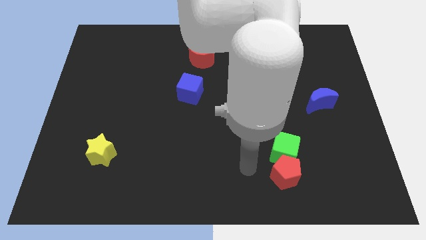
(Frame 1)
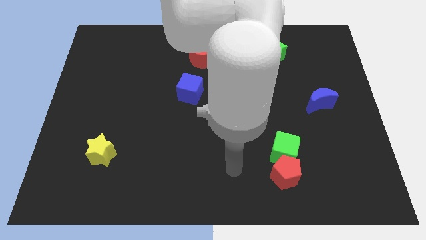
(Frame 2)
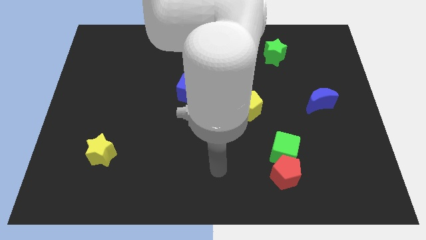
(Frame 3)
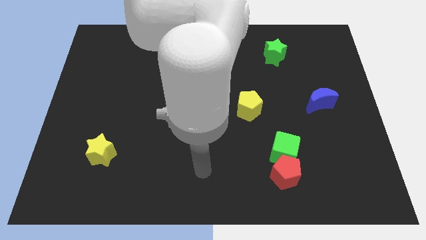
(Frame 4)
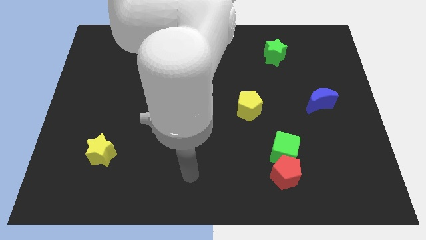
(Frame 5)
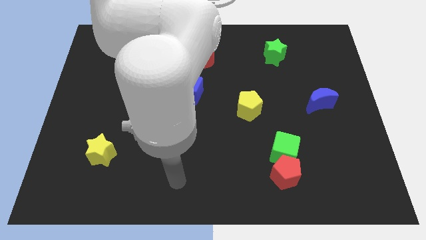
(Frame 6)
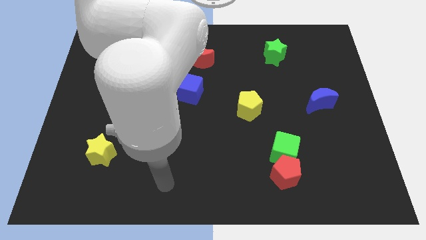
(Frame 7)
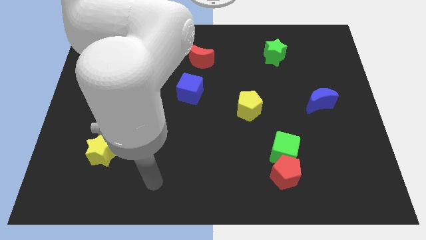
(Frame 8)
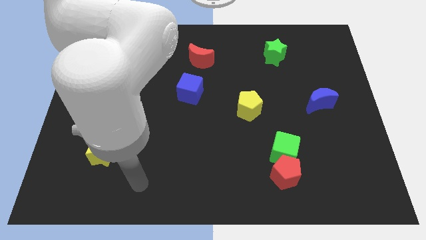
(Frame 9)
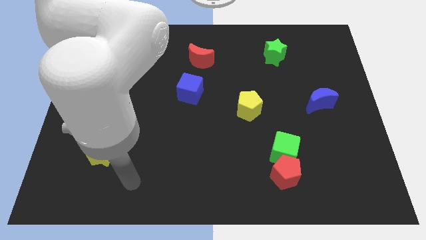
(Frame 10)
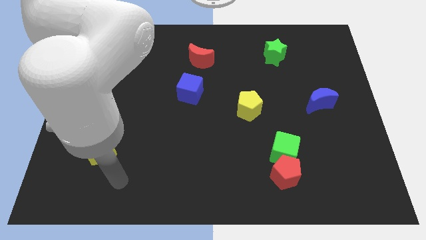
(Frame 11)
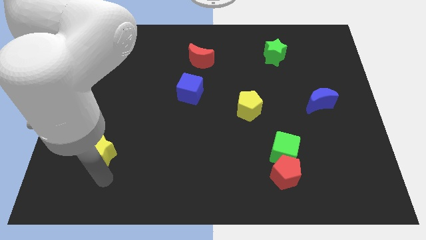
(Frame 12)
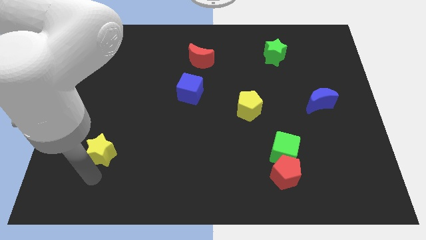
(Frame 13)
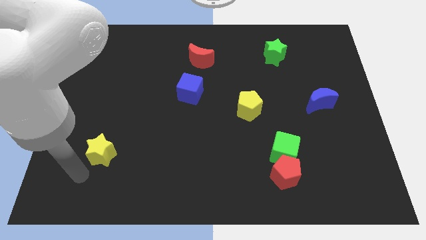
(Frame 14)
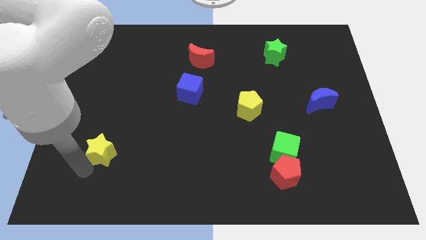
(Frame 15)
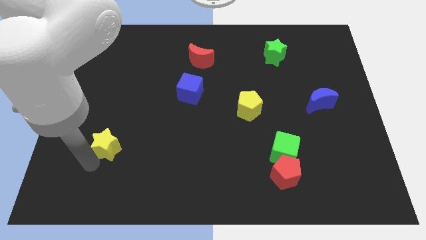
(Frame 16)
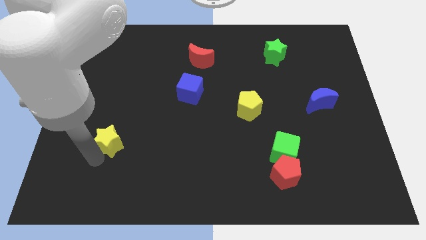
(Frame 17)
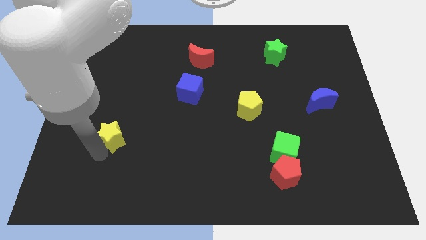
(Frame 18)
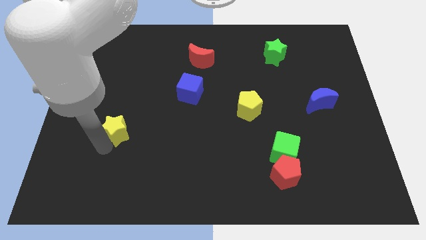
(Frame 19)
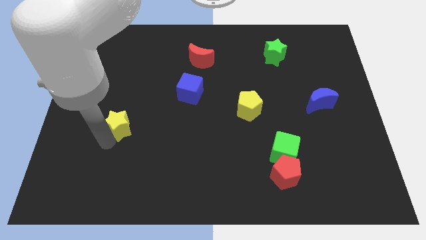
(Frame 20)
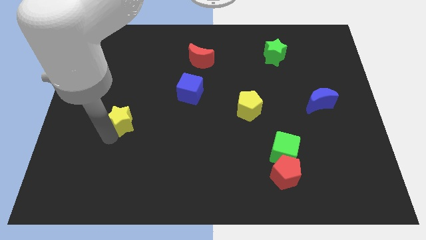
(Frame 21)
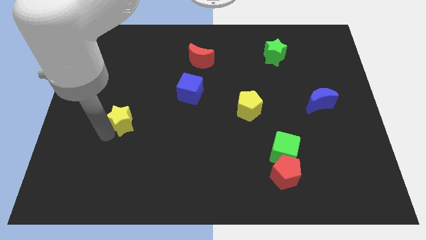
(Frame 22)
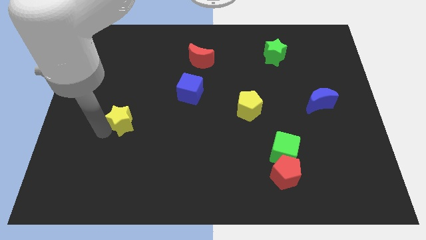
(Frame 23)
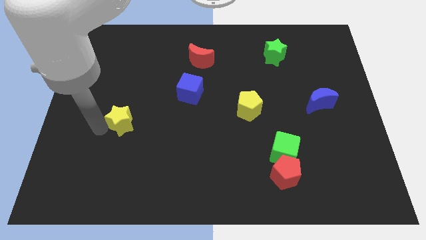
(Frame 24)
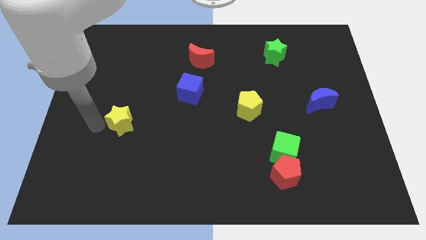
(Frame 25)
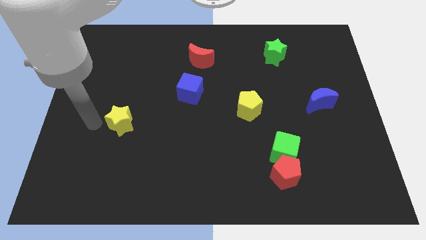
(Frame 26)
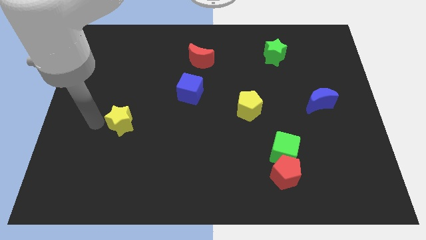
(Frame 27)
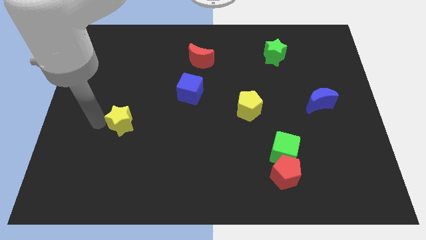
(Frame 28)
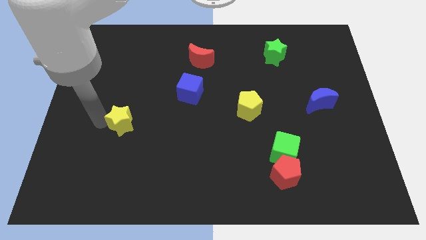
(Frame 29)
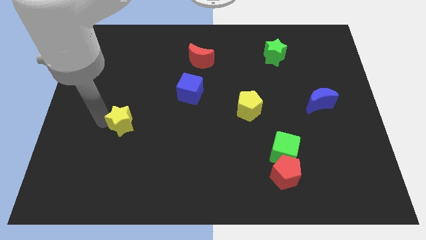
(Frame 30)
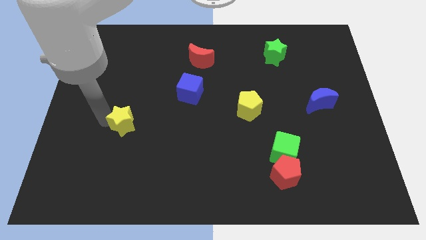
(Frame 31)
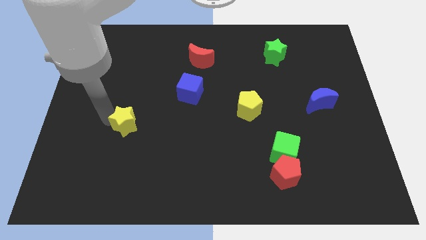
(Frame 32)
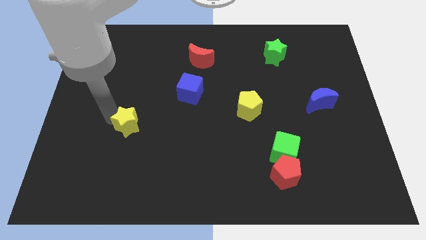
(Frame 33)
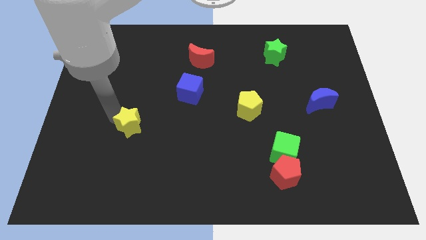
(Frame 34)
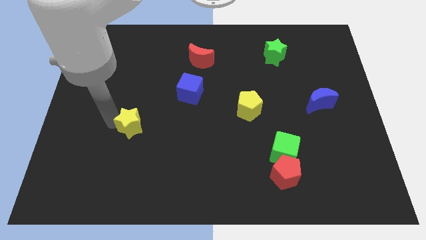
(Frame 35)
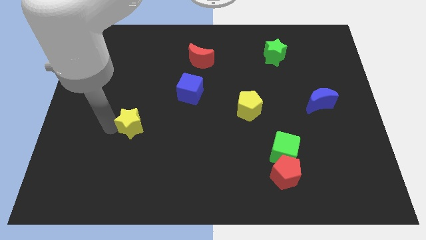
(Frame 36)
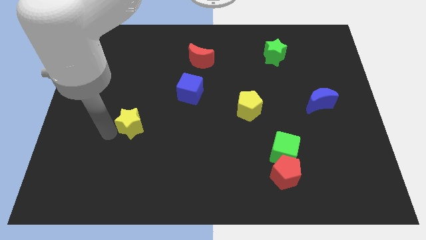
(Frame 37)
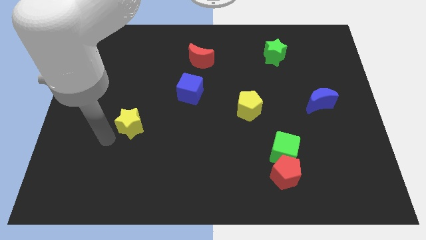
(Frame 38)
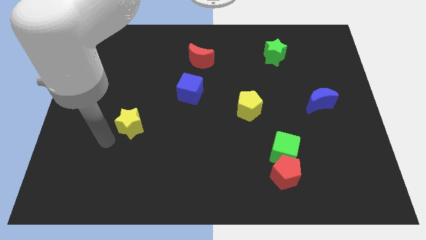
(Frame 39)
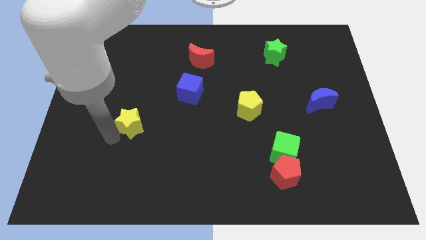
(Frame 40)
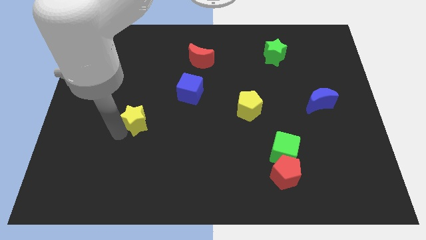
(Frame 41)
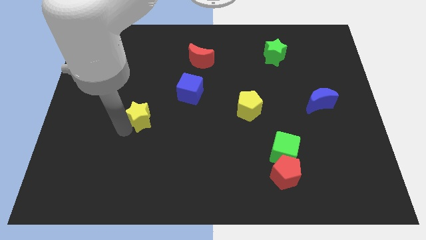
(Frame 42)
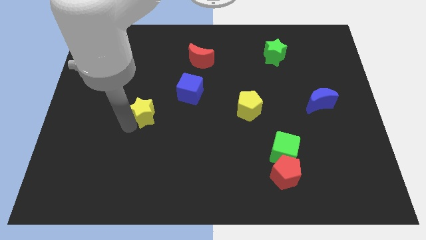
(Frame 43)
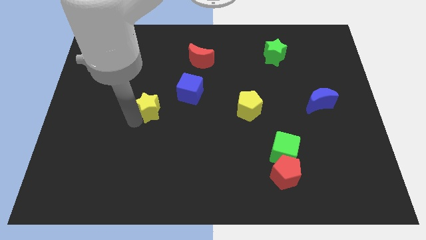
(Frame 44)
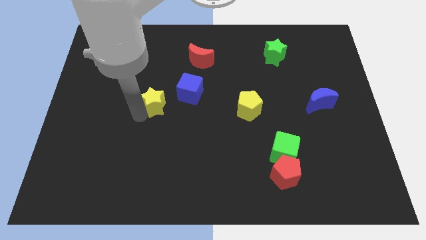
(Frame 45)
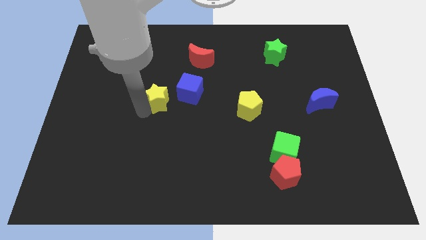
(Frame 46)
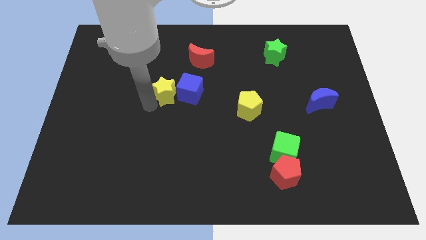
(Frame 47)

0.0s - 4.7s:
put the yellow star towards the blue cube

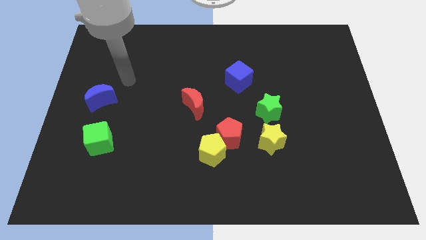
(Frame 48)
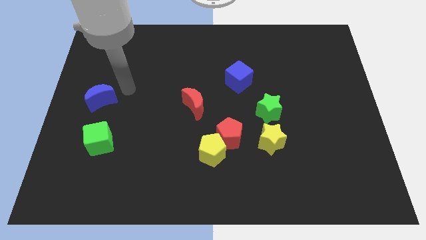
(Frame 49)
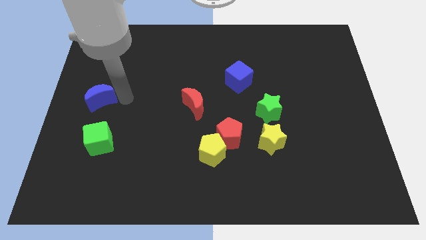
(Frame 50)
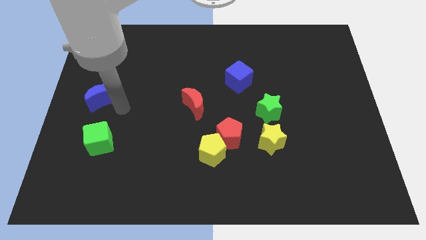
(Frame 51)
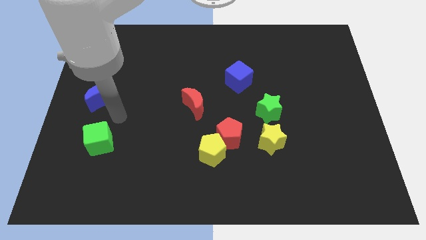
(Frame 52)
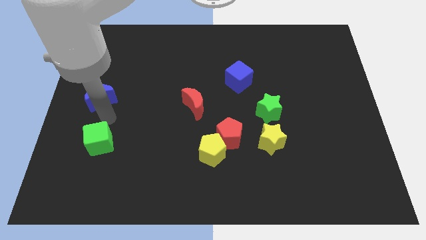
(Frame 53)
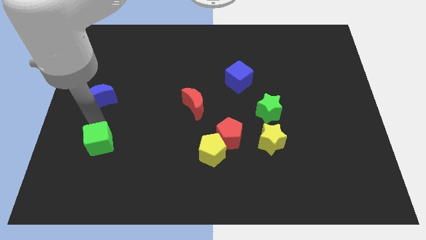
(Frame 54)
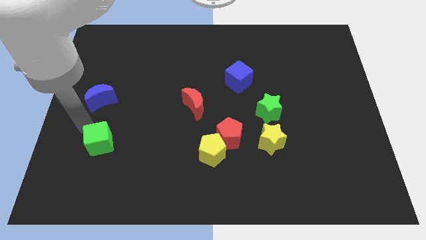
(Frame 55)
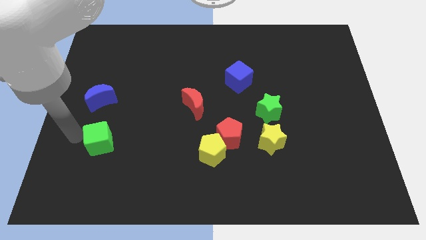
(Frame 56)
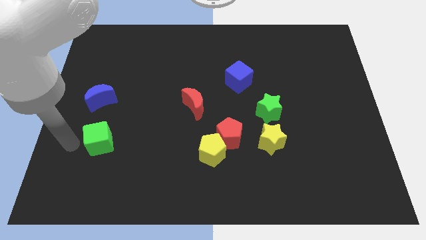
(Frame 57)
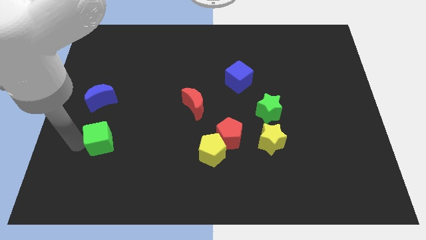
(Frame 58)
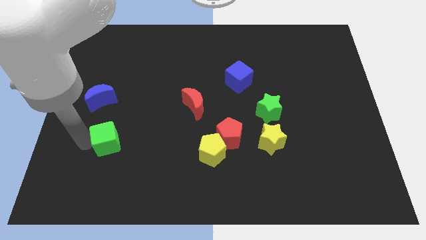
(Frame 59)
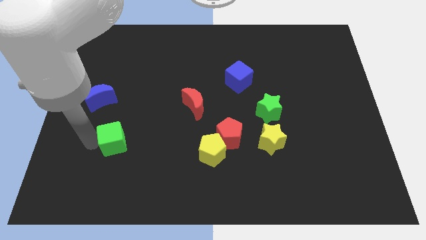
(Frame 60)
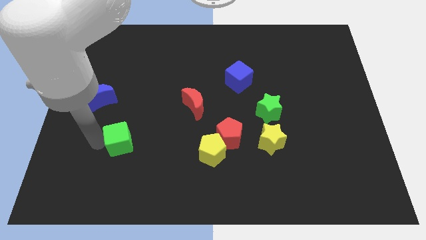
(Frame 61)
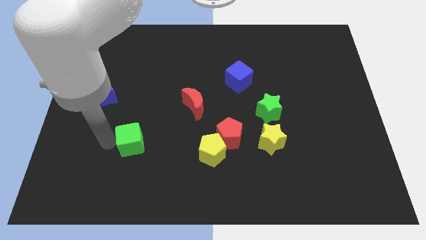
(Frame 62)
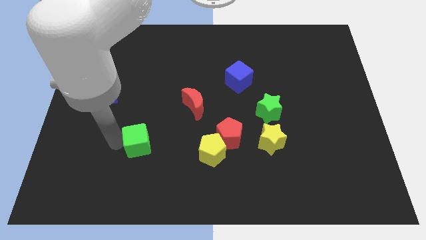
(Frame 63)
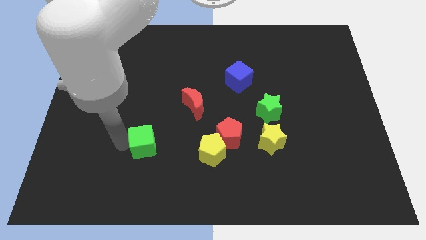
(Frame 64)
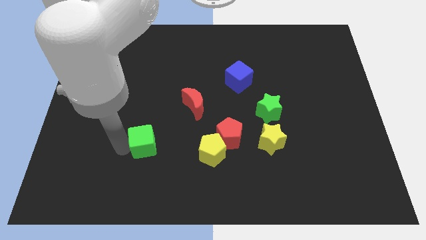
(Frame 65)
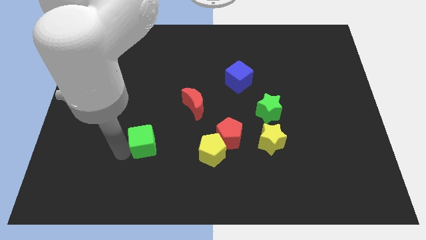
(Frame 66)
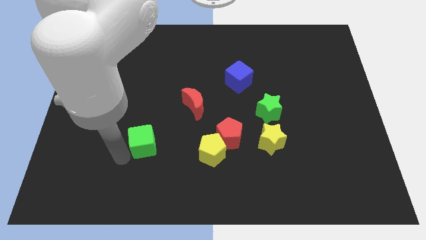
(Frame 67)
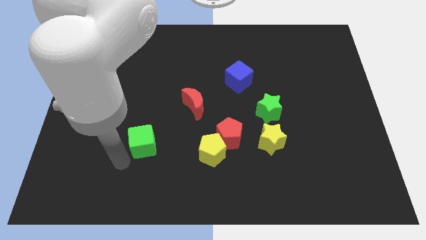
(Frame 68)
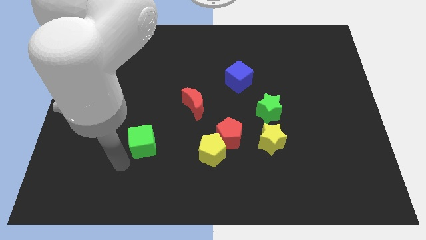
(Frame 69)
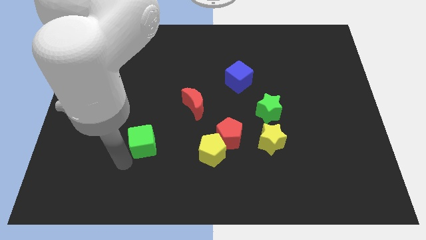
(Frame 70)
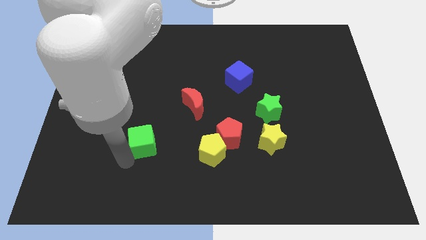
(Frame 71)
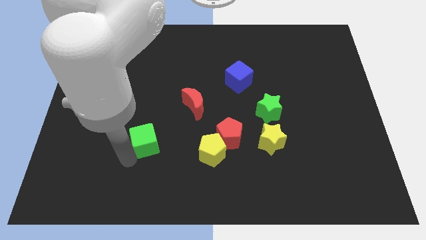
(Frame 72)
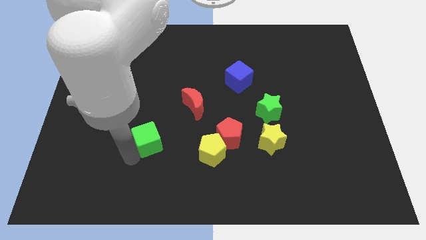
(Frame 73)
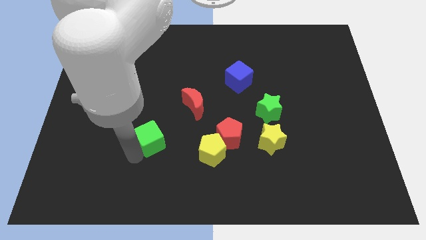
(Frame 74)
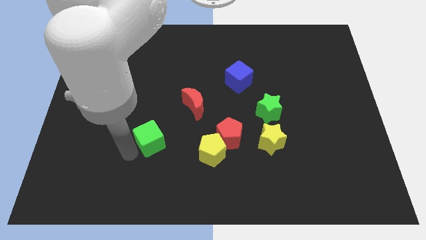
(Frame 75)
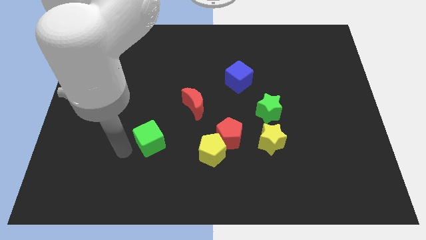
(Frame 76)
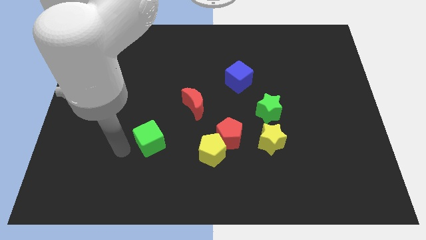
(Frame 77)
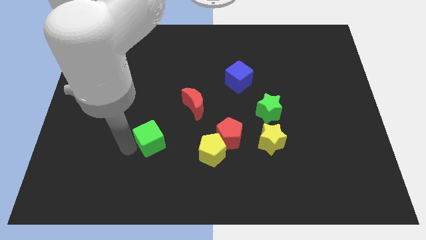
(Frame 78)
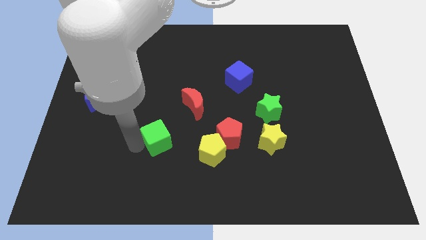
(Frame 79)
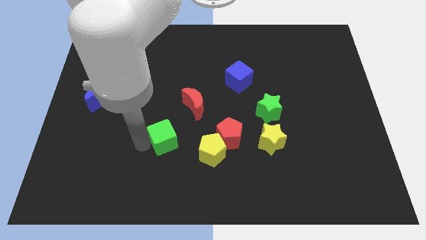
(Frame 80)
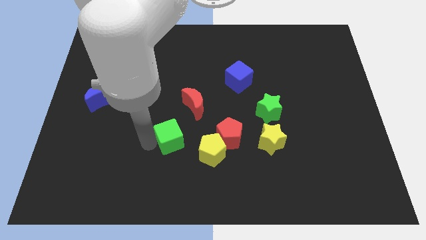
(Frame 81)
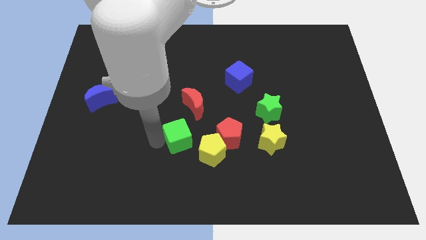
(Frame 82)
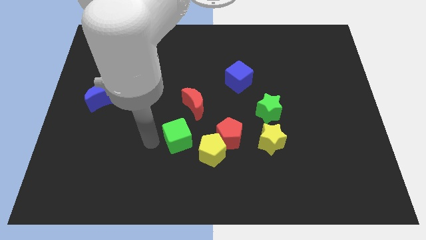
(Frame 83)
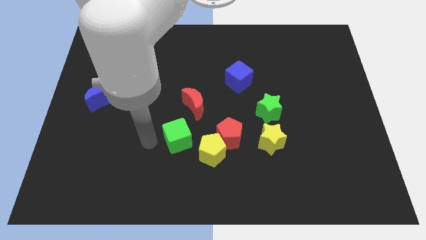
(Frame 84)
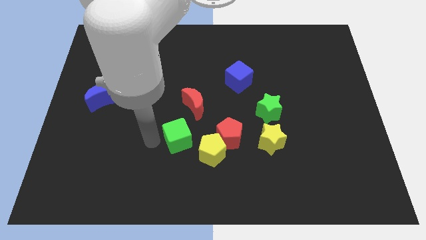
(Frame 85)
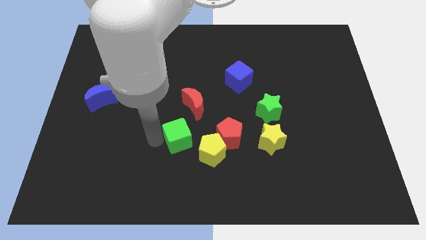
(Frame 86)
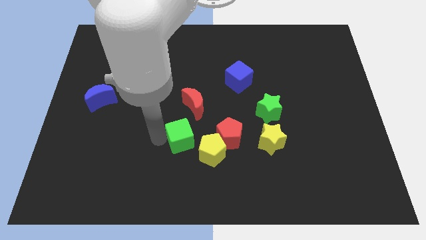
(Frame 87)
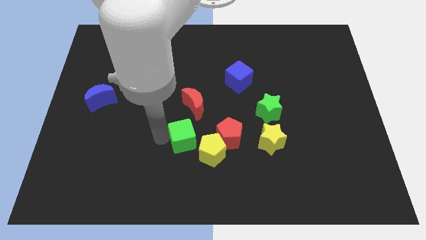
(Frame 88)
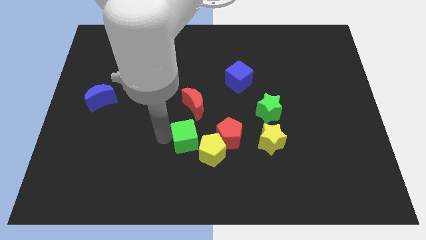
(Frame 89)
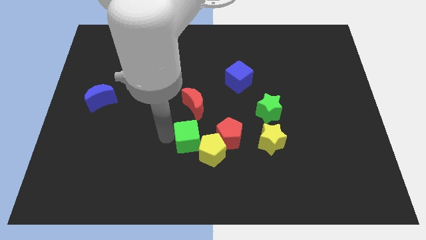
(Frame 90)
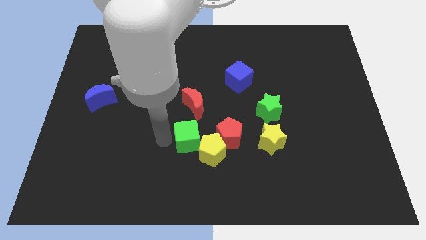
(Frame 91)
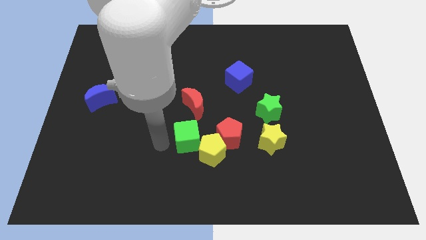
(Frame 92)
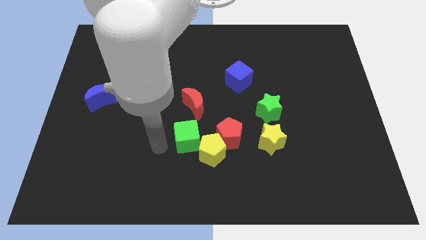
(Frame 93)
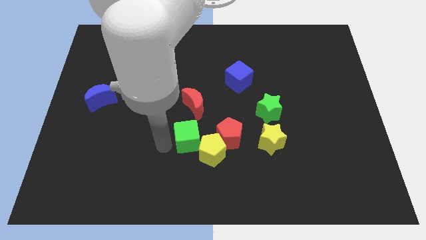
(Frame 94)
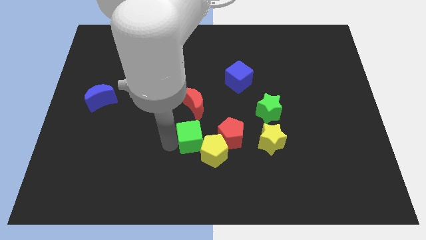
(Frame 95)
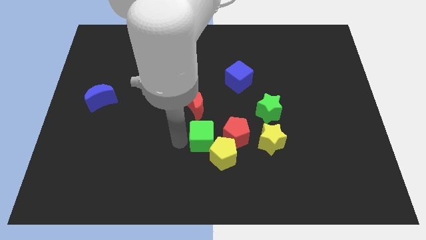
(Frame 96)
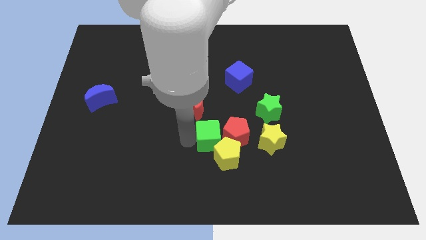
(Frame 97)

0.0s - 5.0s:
slide the green cube next to the red pentagon
